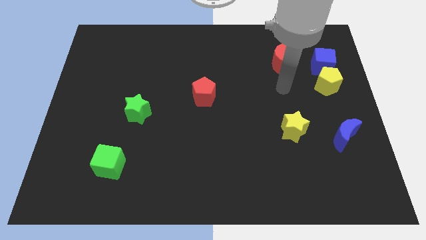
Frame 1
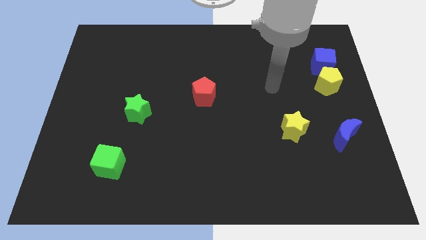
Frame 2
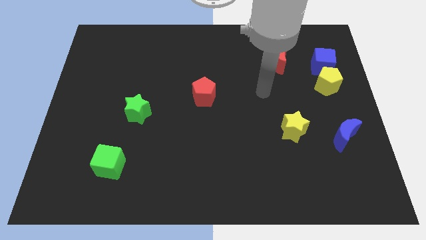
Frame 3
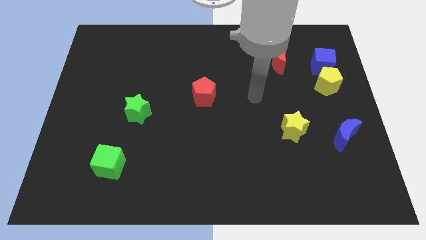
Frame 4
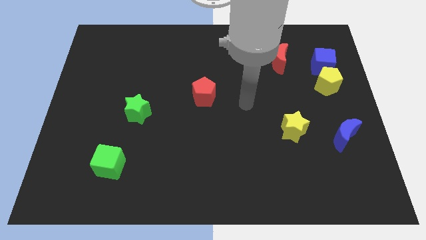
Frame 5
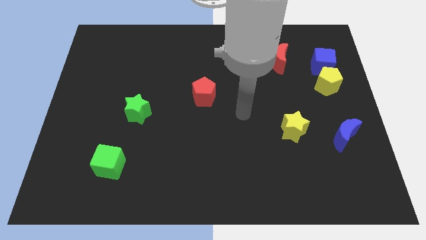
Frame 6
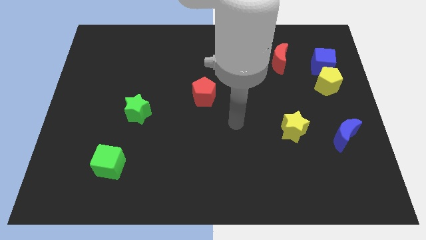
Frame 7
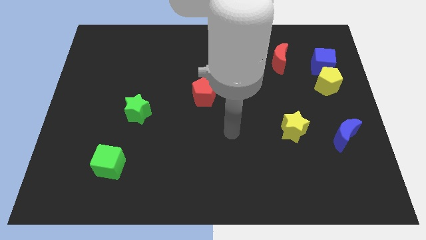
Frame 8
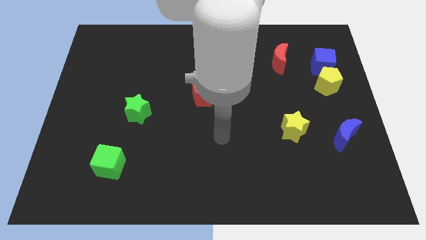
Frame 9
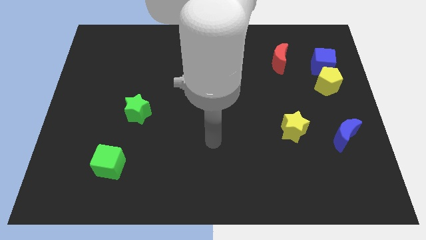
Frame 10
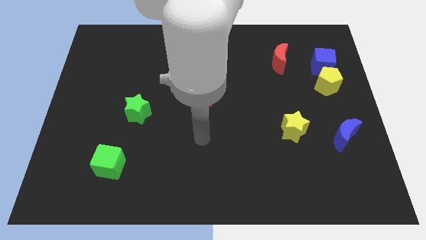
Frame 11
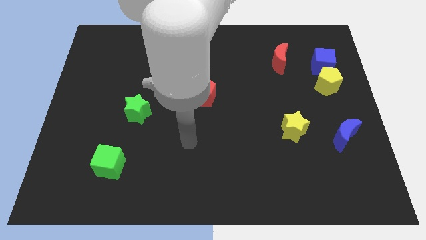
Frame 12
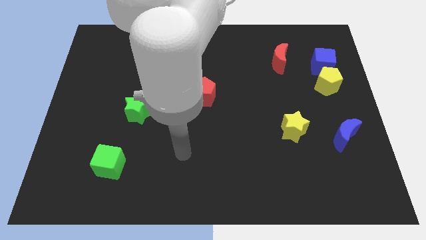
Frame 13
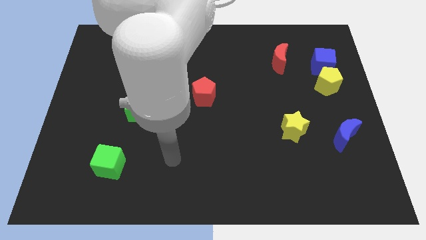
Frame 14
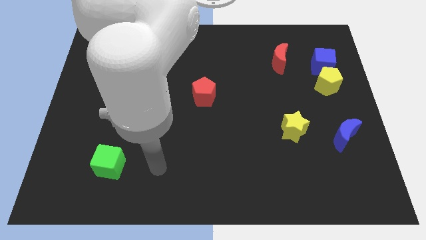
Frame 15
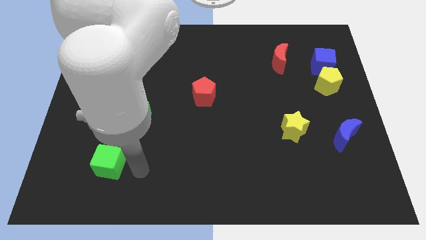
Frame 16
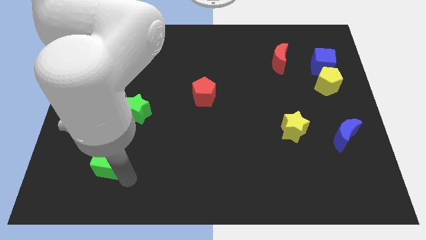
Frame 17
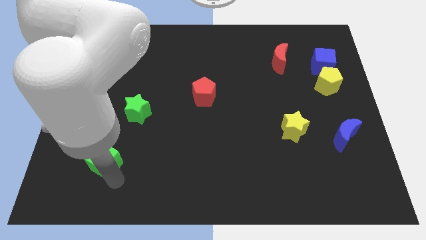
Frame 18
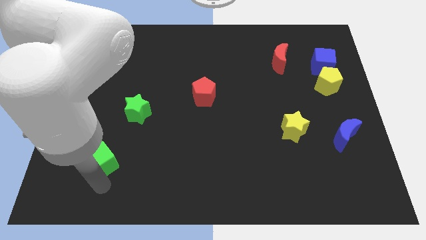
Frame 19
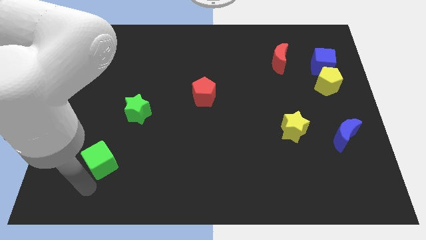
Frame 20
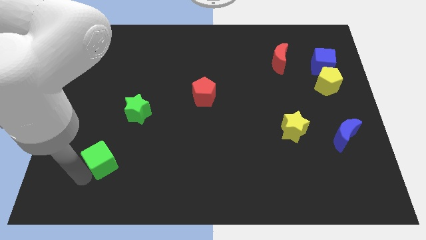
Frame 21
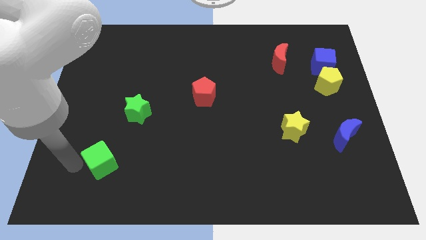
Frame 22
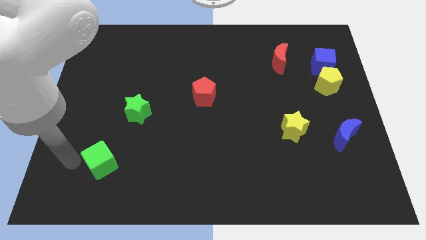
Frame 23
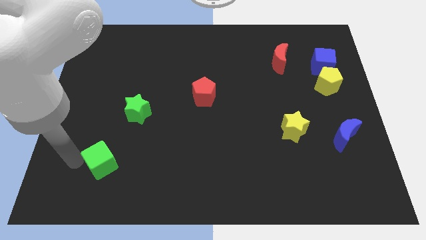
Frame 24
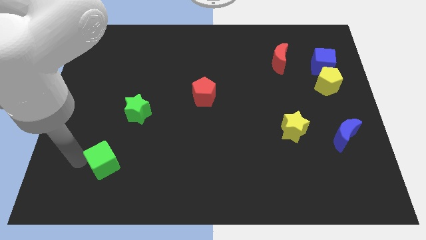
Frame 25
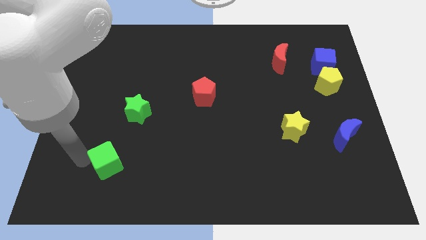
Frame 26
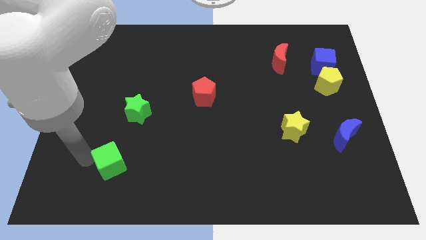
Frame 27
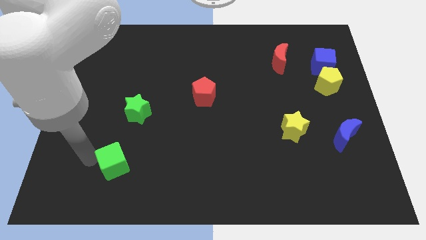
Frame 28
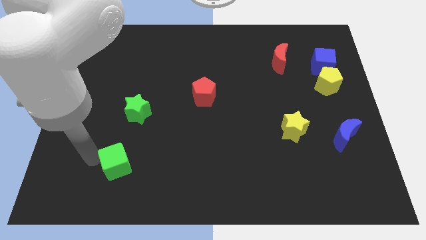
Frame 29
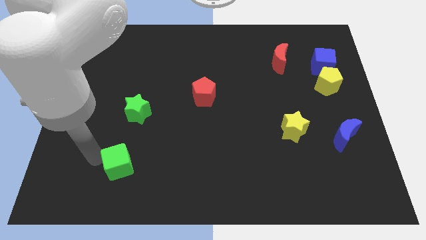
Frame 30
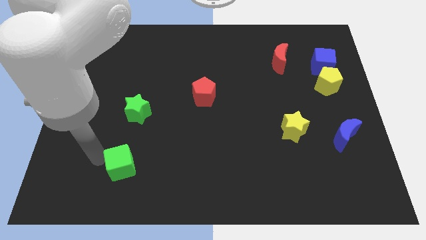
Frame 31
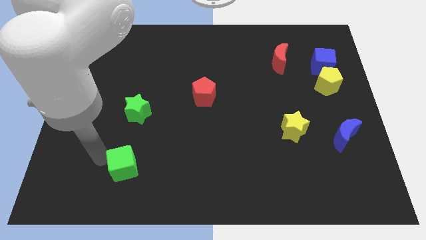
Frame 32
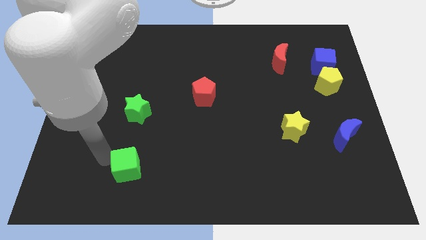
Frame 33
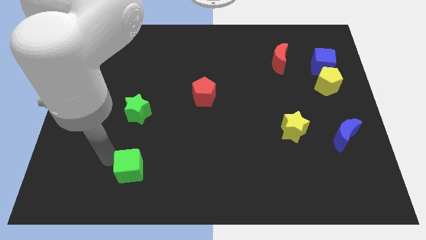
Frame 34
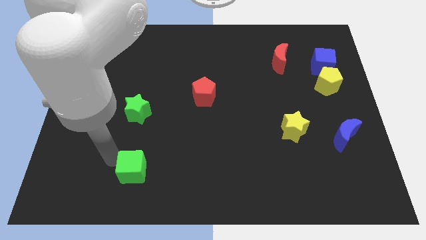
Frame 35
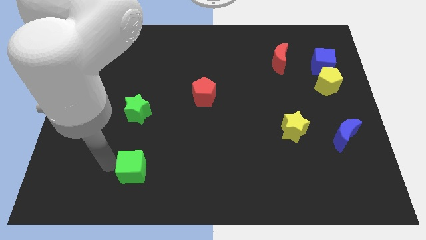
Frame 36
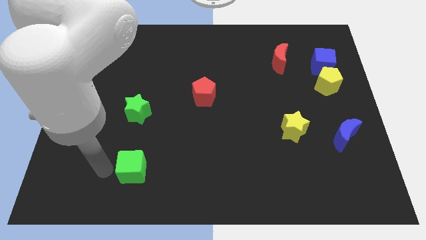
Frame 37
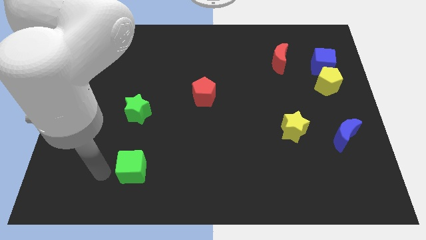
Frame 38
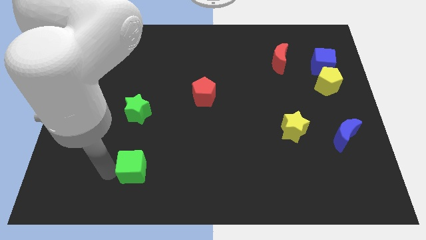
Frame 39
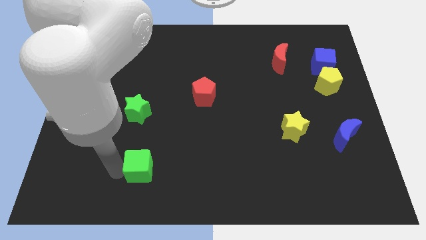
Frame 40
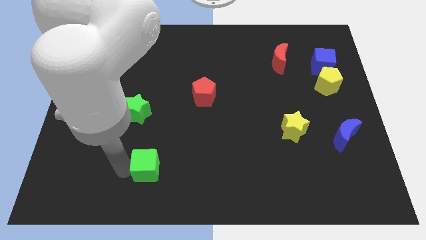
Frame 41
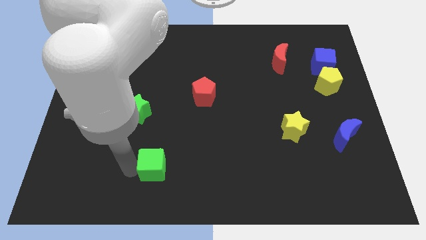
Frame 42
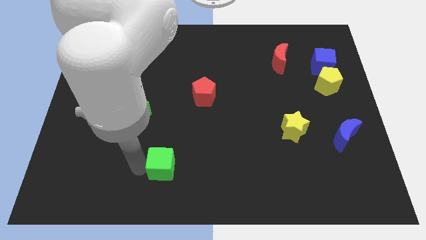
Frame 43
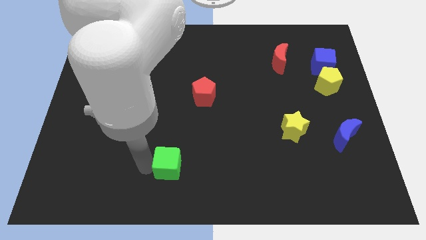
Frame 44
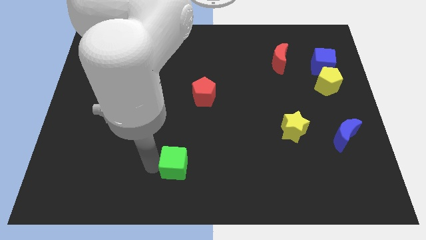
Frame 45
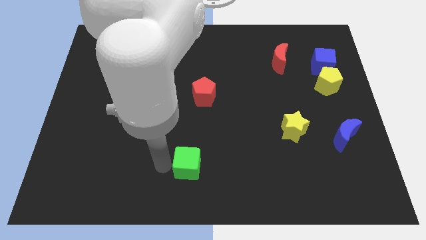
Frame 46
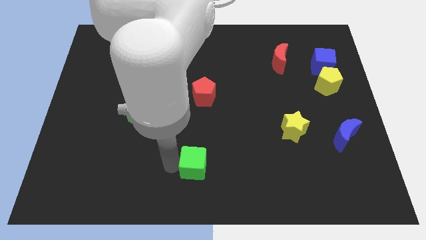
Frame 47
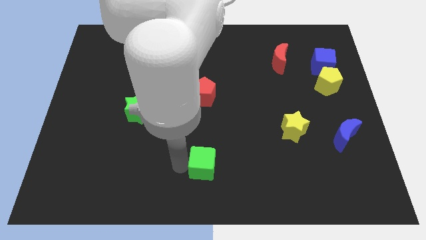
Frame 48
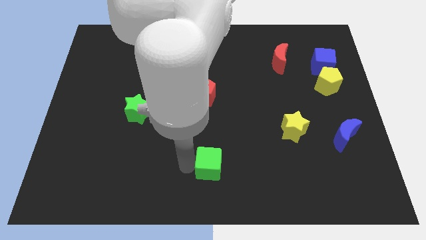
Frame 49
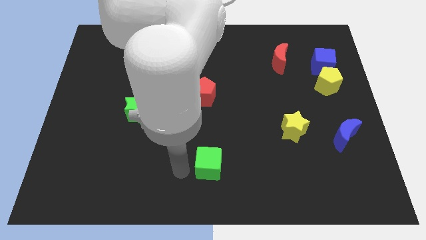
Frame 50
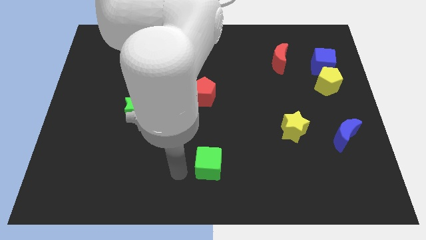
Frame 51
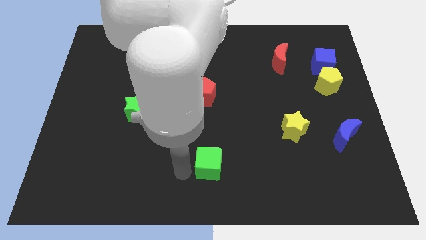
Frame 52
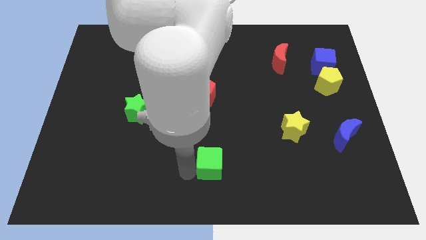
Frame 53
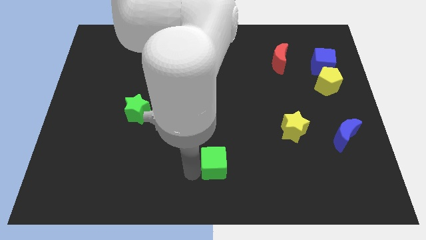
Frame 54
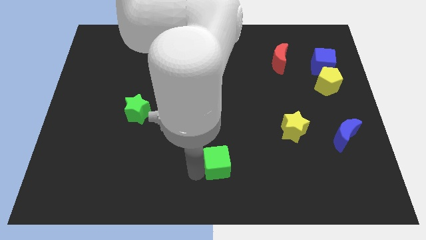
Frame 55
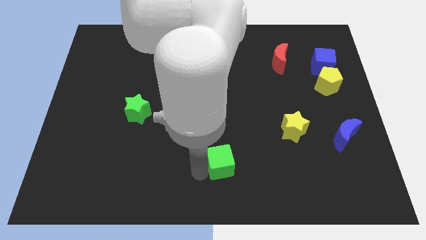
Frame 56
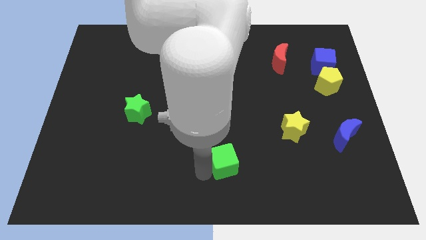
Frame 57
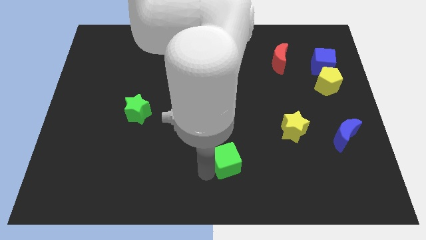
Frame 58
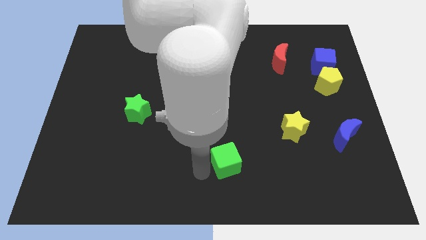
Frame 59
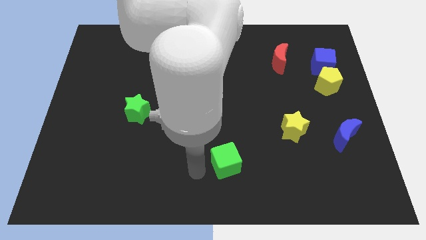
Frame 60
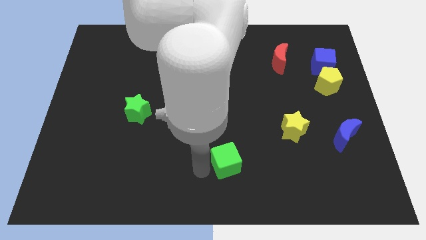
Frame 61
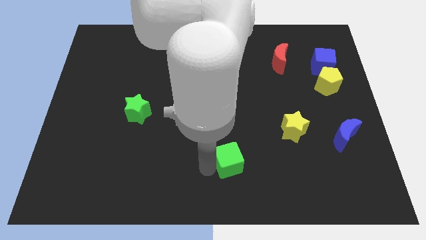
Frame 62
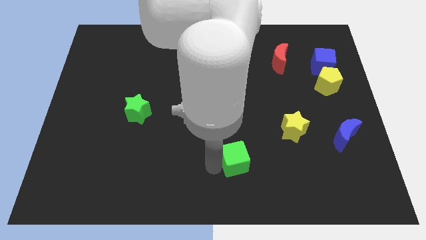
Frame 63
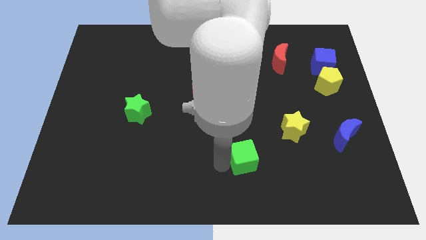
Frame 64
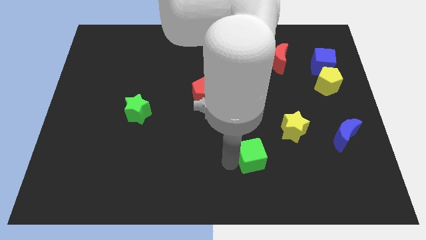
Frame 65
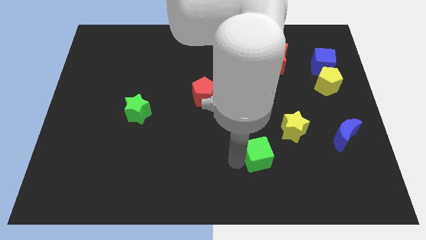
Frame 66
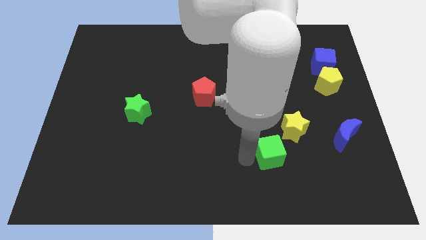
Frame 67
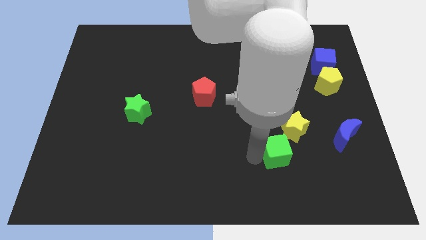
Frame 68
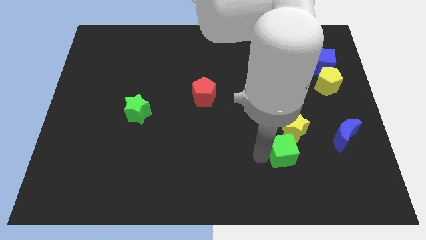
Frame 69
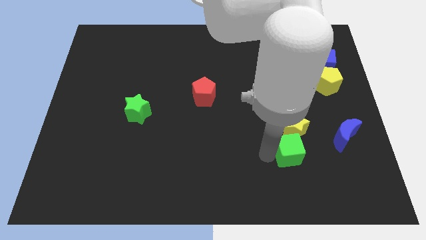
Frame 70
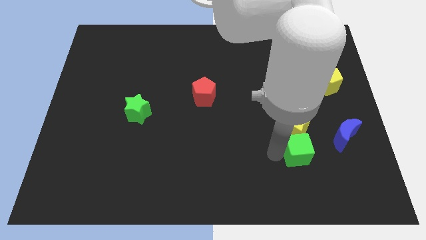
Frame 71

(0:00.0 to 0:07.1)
slide the green cube diagonally down and to the right of the yellow star

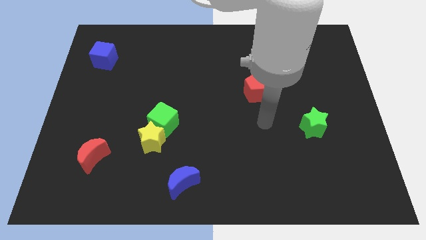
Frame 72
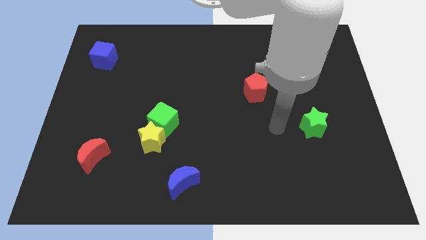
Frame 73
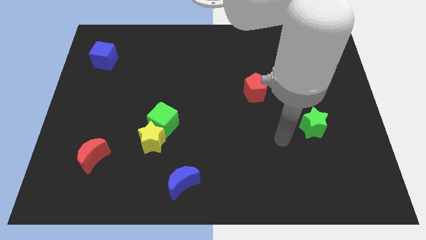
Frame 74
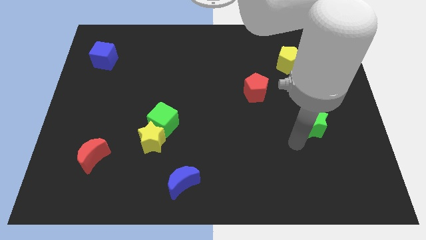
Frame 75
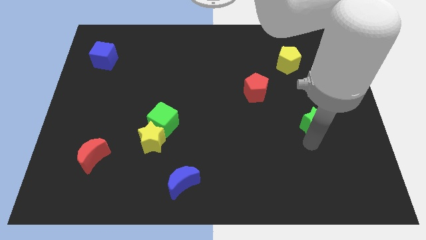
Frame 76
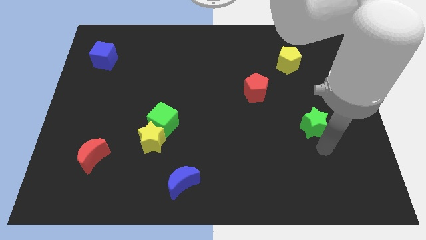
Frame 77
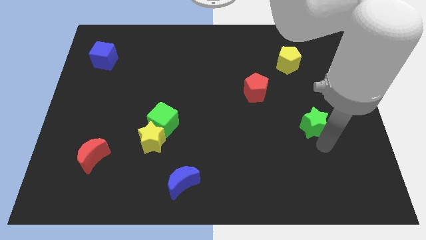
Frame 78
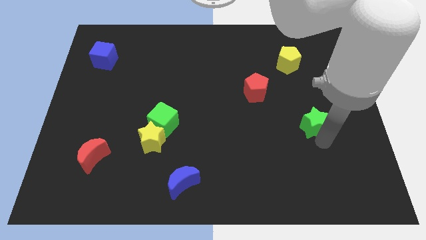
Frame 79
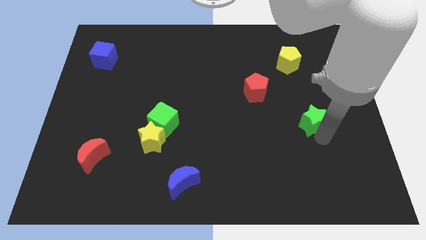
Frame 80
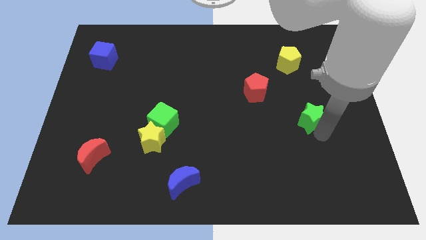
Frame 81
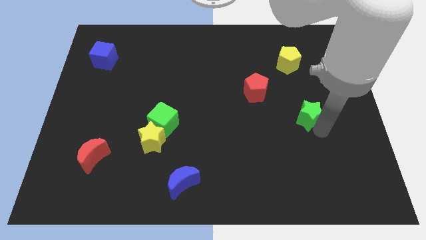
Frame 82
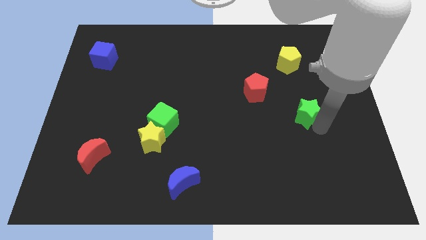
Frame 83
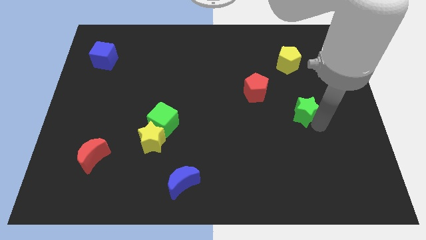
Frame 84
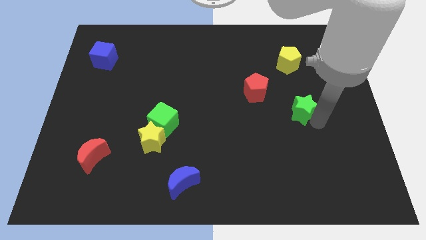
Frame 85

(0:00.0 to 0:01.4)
move the green star to the bottom of the yellow pentagon
